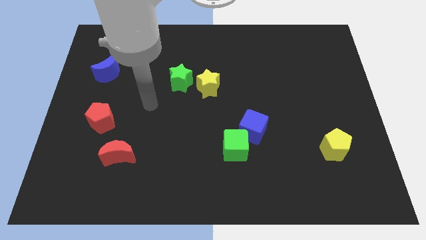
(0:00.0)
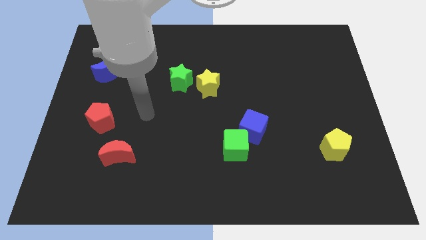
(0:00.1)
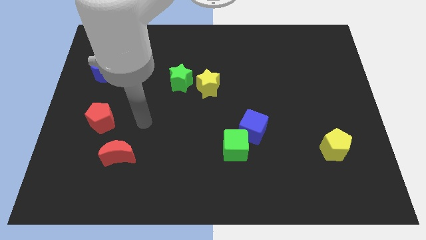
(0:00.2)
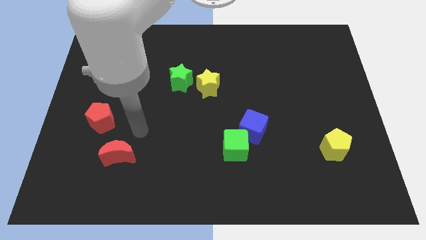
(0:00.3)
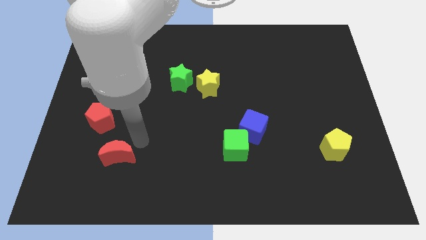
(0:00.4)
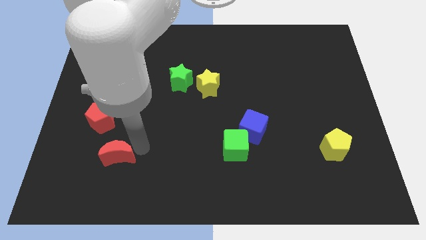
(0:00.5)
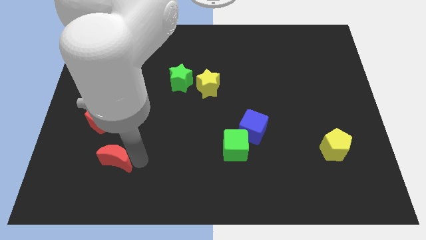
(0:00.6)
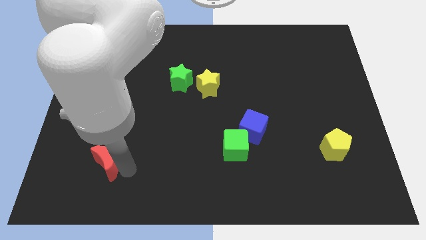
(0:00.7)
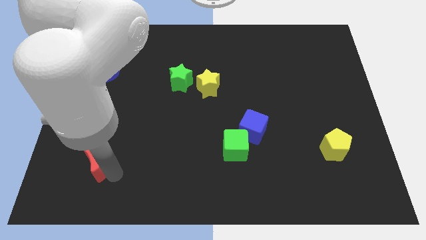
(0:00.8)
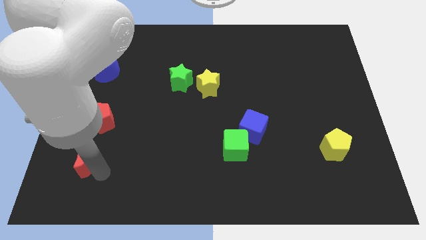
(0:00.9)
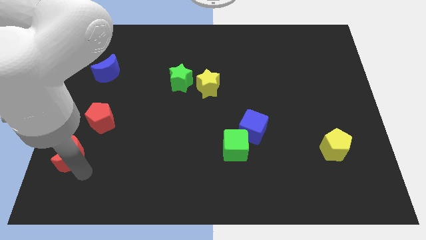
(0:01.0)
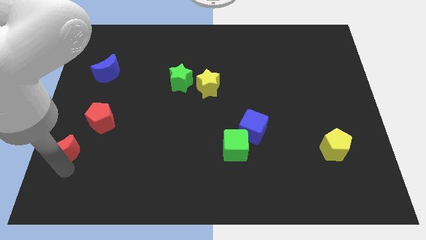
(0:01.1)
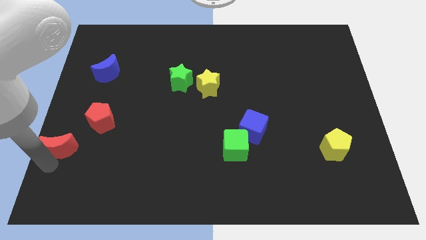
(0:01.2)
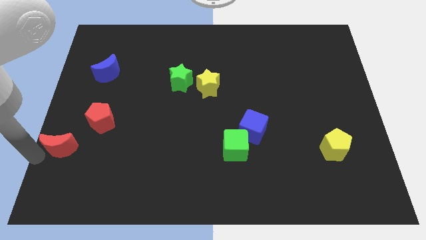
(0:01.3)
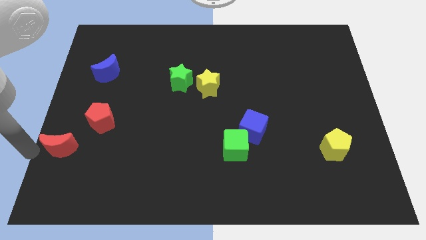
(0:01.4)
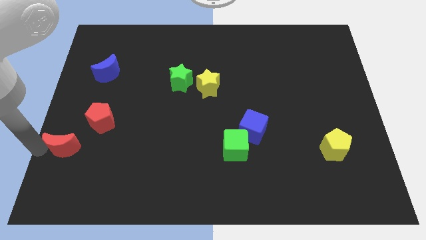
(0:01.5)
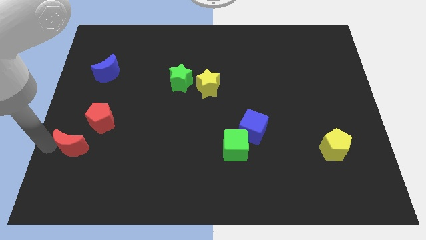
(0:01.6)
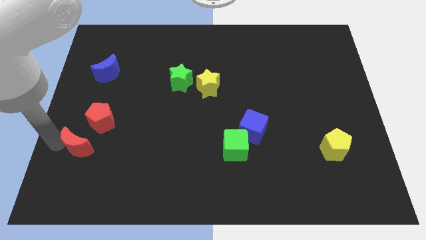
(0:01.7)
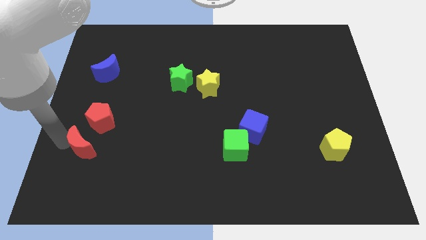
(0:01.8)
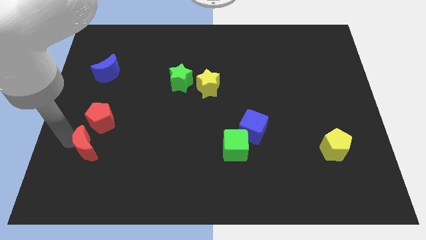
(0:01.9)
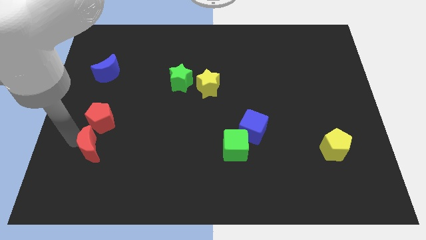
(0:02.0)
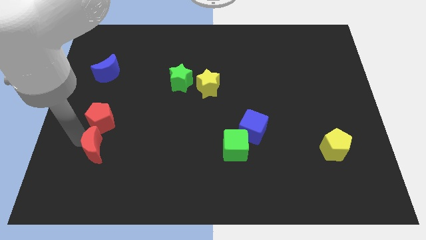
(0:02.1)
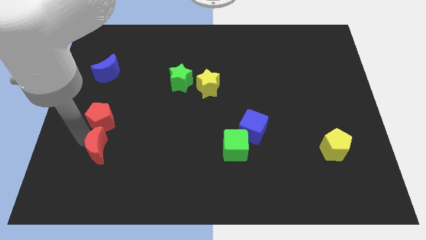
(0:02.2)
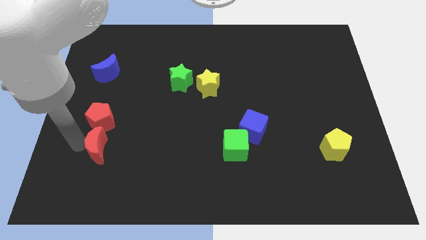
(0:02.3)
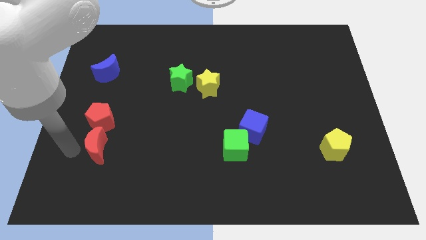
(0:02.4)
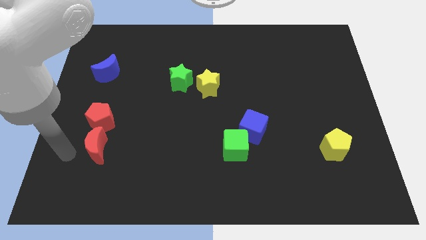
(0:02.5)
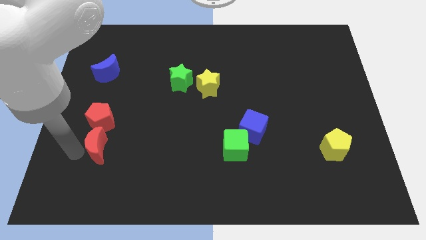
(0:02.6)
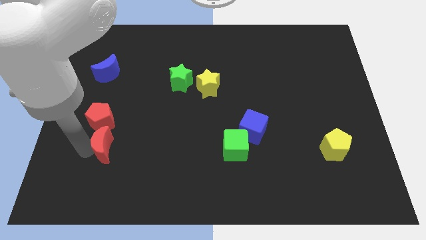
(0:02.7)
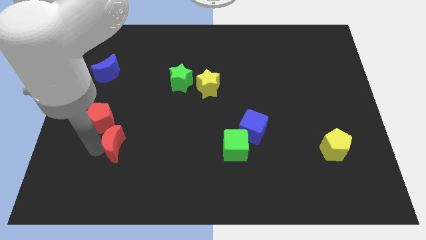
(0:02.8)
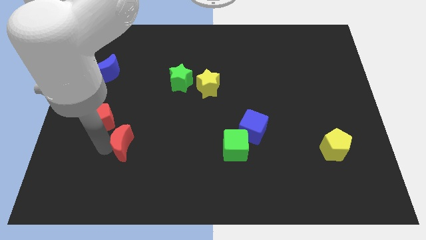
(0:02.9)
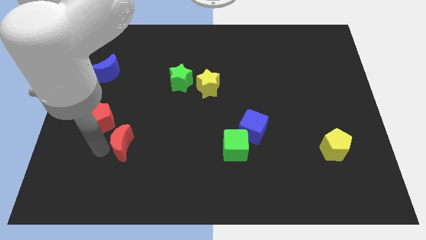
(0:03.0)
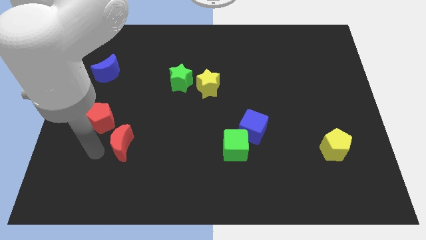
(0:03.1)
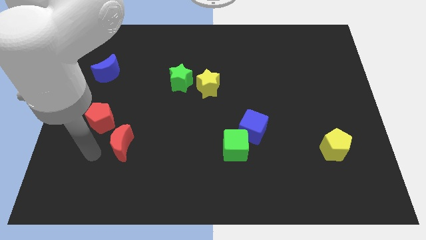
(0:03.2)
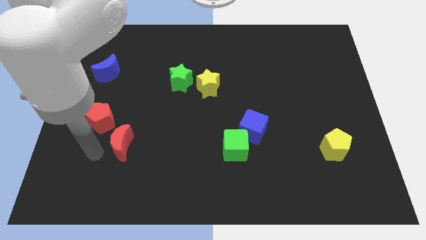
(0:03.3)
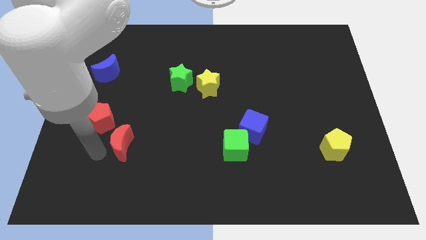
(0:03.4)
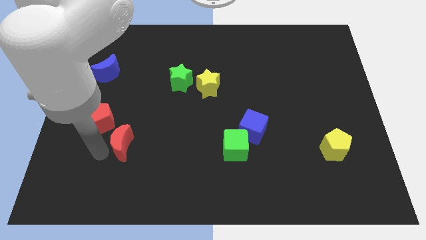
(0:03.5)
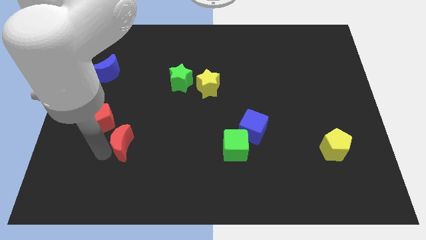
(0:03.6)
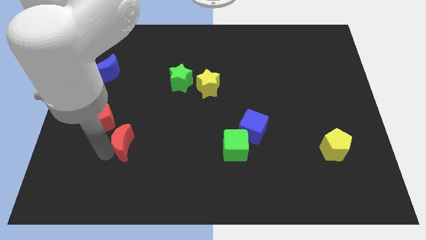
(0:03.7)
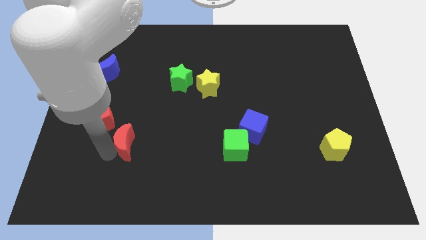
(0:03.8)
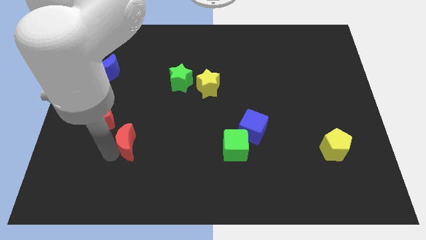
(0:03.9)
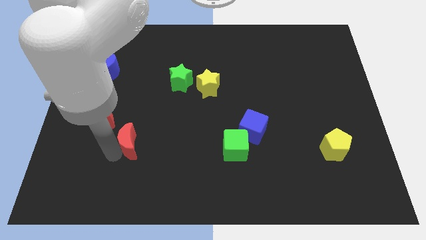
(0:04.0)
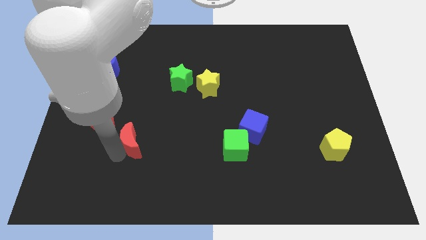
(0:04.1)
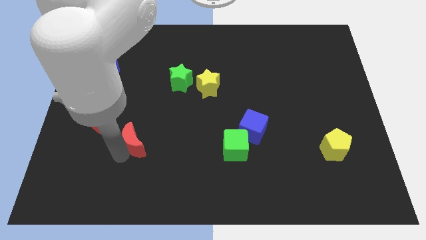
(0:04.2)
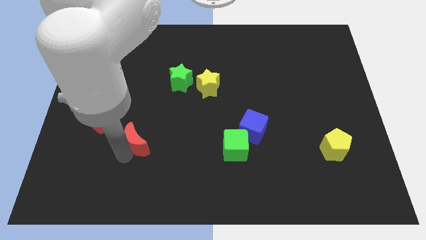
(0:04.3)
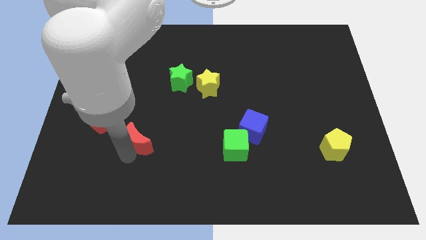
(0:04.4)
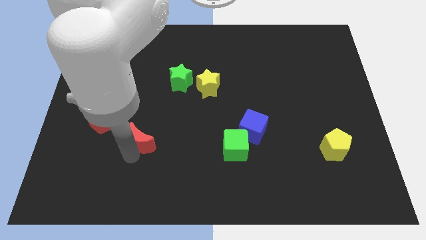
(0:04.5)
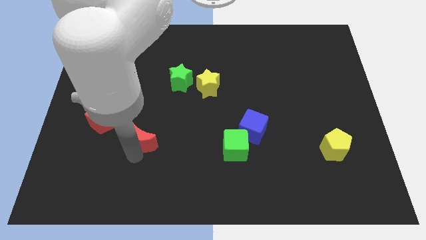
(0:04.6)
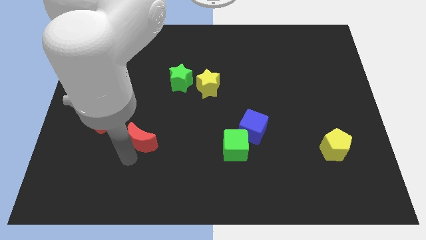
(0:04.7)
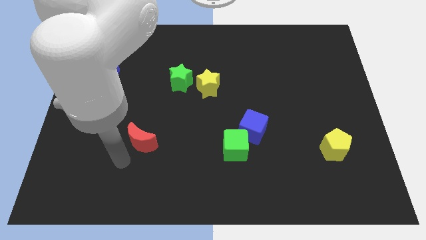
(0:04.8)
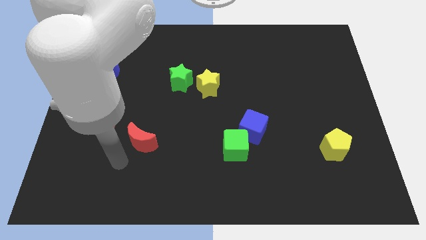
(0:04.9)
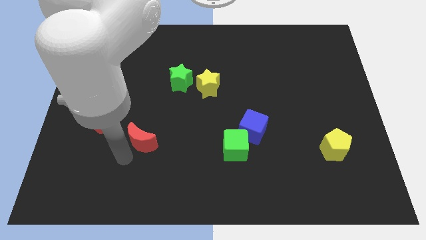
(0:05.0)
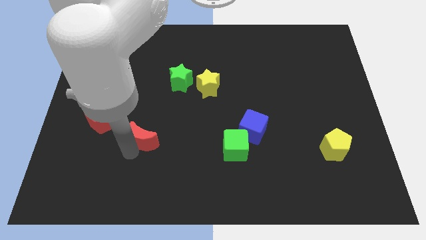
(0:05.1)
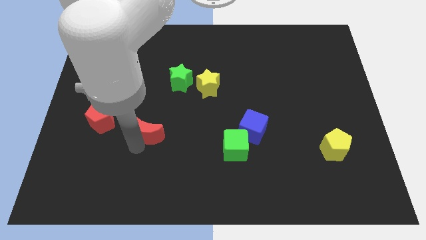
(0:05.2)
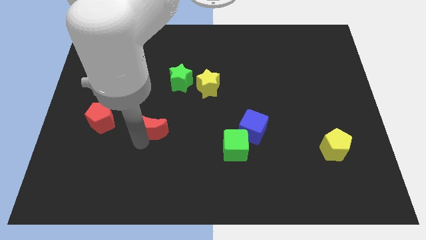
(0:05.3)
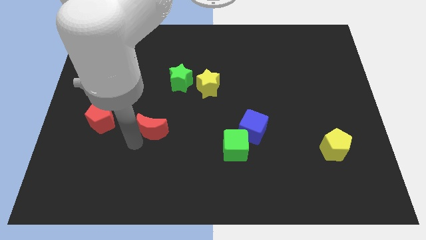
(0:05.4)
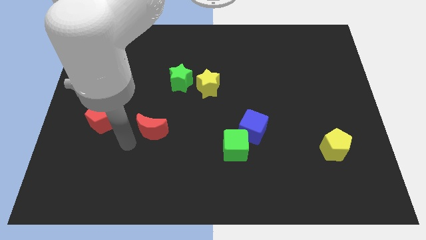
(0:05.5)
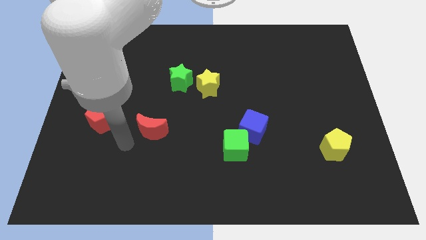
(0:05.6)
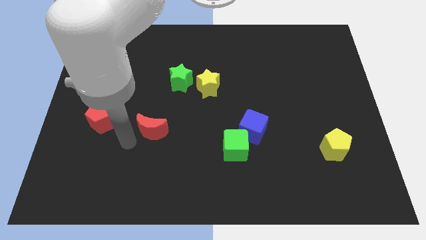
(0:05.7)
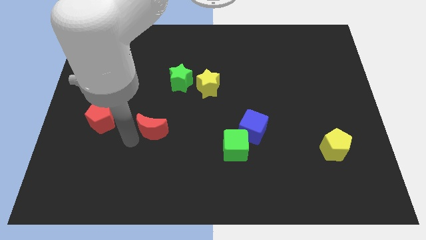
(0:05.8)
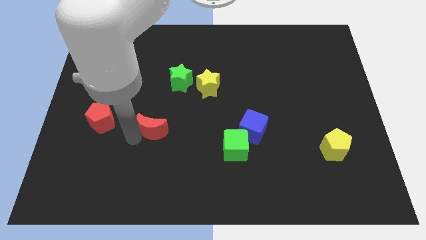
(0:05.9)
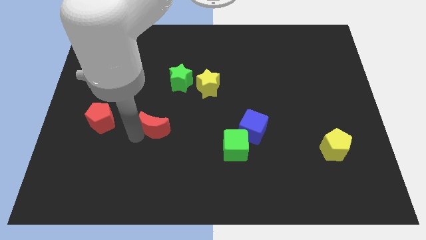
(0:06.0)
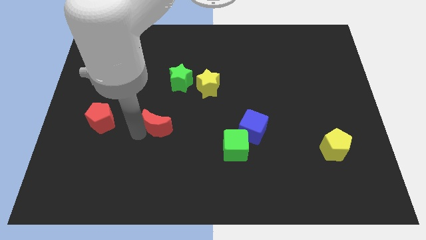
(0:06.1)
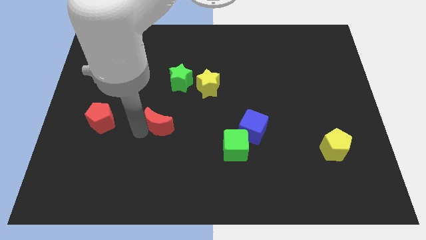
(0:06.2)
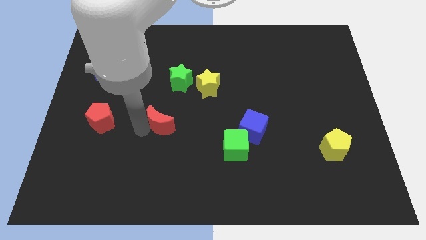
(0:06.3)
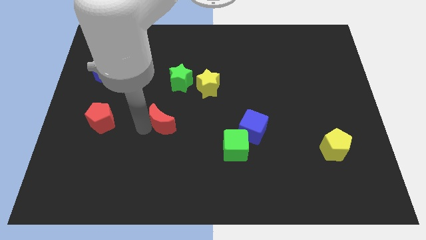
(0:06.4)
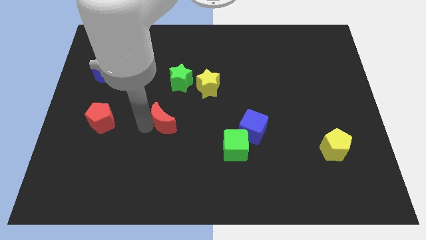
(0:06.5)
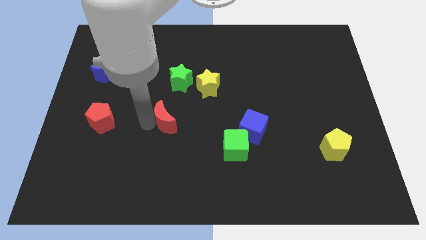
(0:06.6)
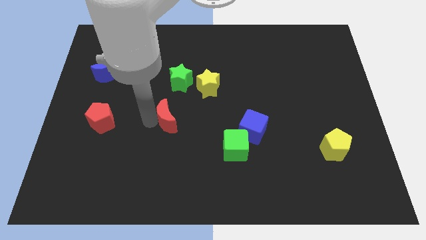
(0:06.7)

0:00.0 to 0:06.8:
put the red moon to the center

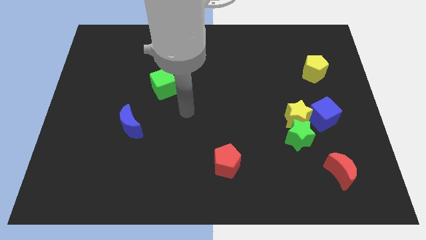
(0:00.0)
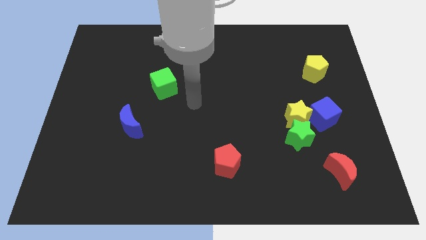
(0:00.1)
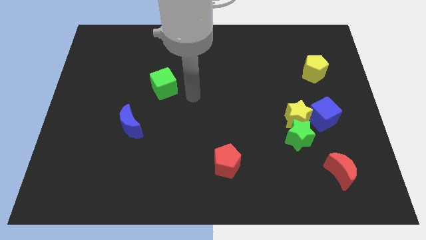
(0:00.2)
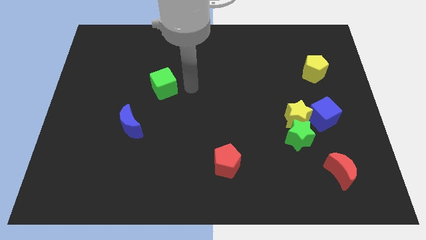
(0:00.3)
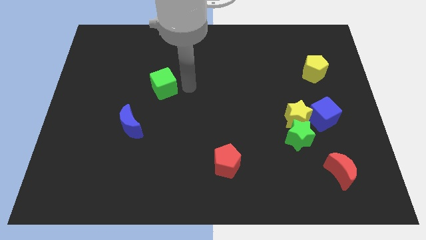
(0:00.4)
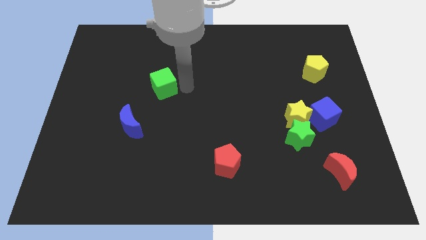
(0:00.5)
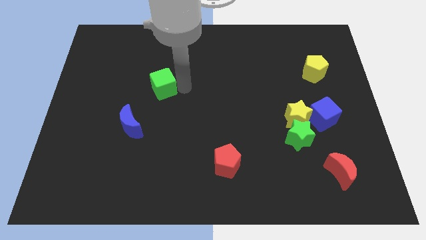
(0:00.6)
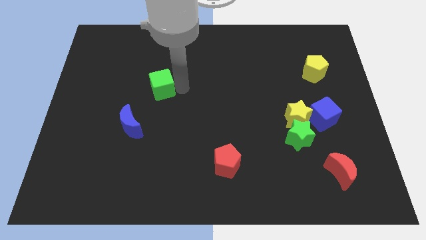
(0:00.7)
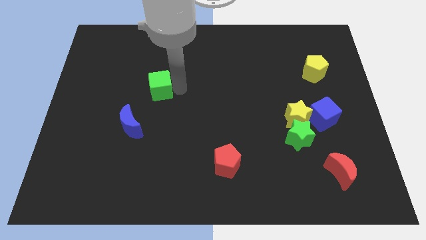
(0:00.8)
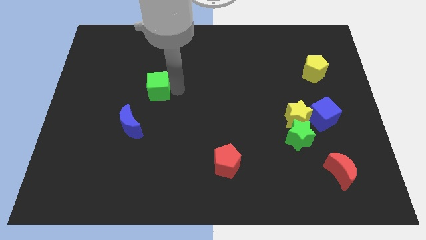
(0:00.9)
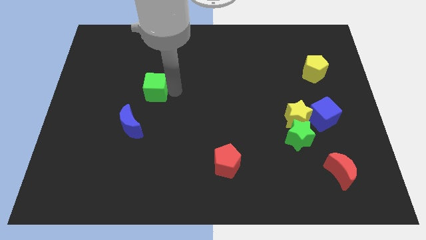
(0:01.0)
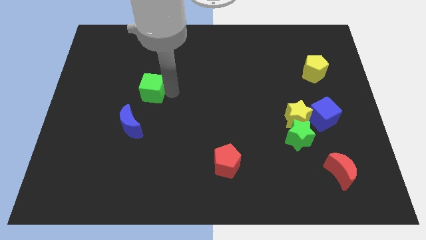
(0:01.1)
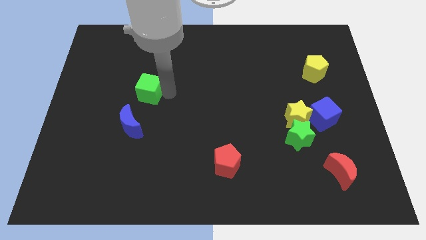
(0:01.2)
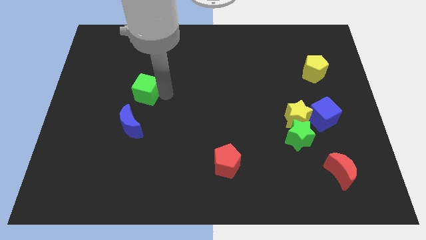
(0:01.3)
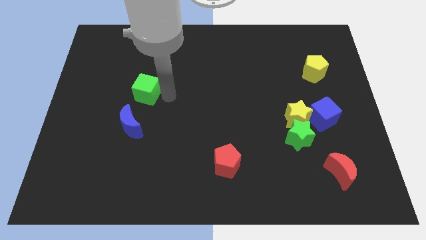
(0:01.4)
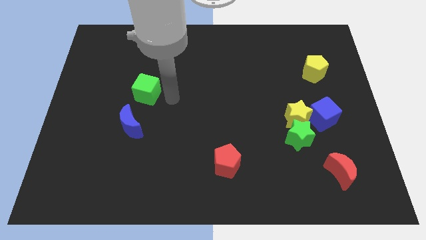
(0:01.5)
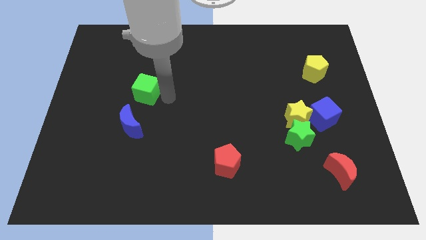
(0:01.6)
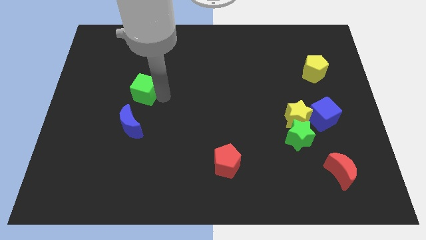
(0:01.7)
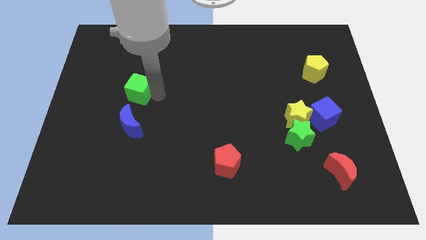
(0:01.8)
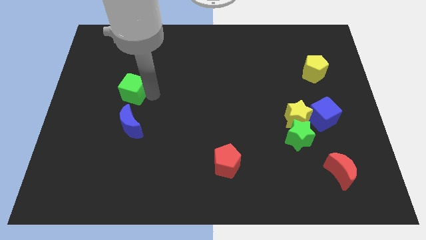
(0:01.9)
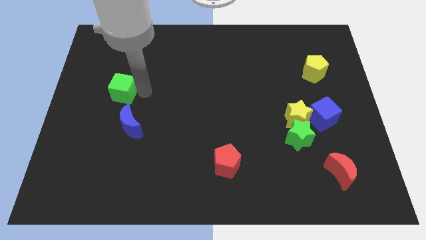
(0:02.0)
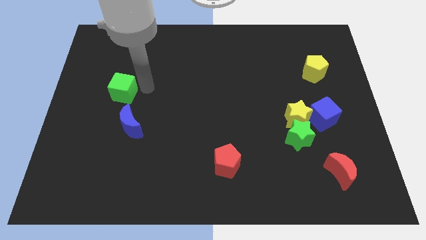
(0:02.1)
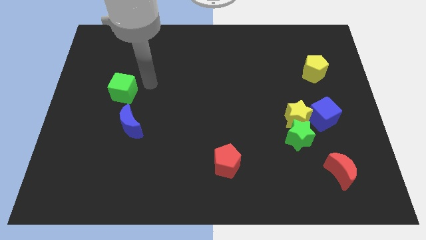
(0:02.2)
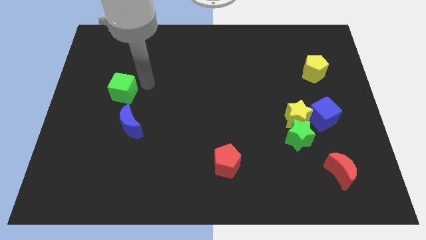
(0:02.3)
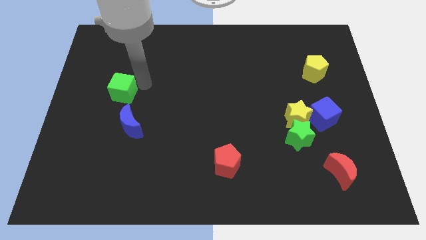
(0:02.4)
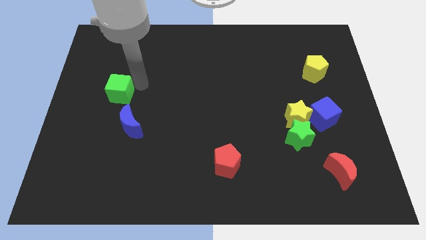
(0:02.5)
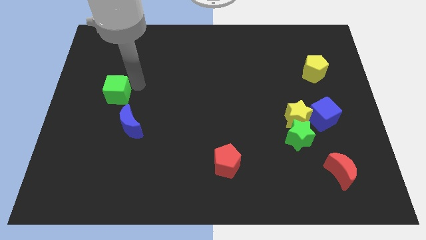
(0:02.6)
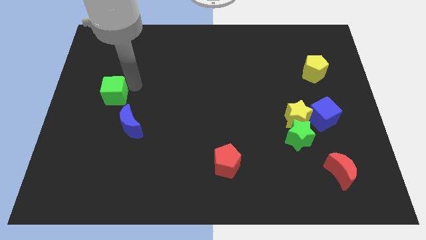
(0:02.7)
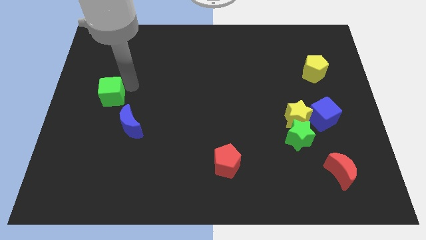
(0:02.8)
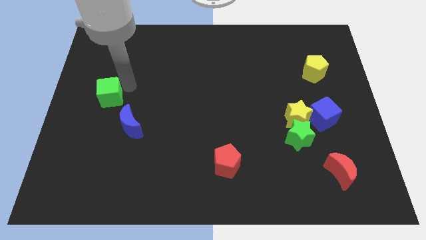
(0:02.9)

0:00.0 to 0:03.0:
move the green cube to the left side
